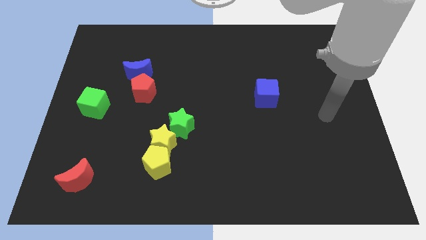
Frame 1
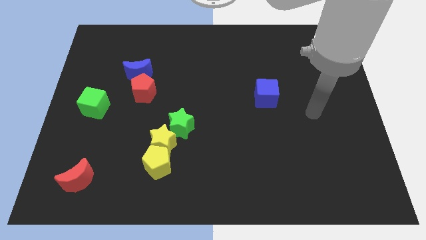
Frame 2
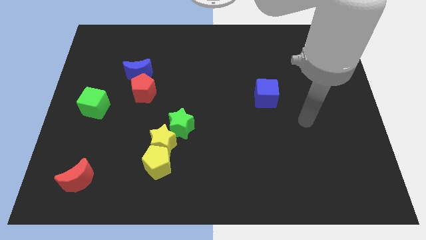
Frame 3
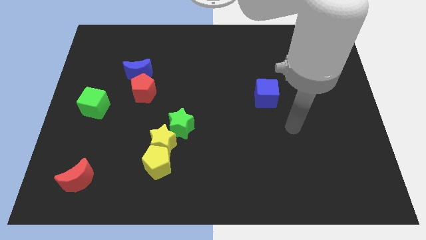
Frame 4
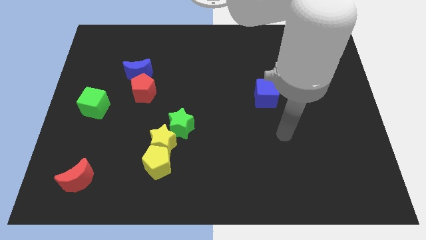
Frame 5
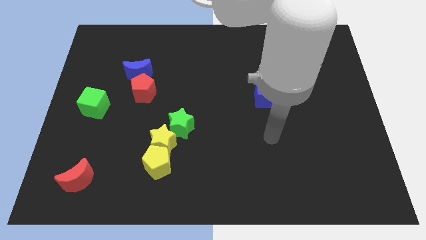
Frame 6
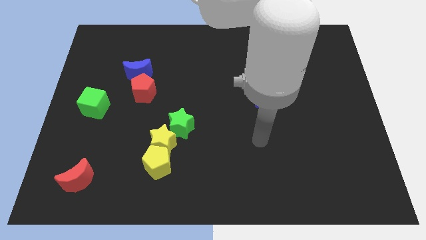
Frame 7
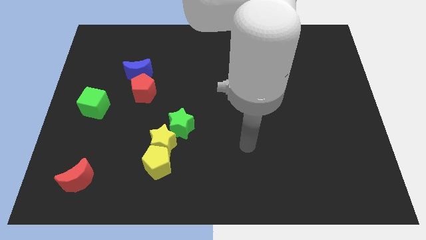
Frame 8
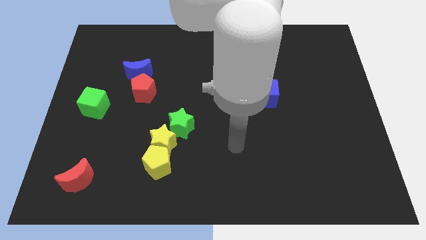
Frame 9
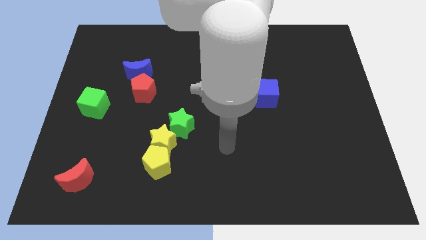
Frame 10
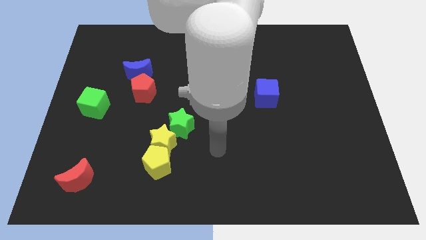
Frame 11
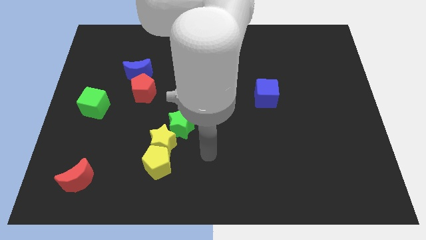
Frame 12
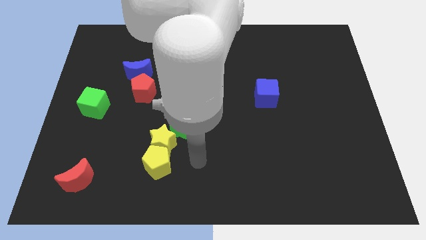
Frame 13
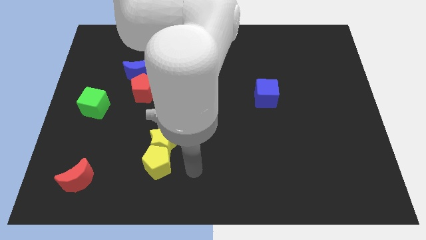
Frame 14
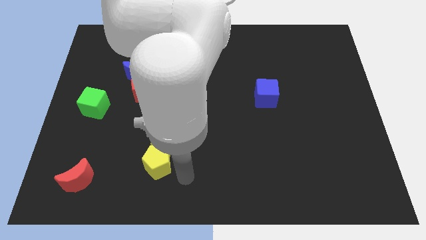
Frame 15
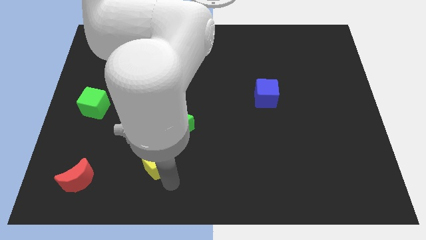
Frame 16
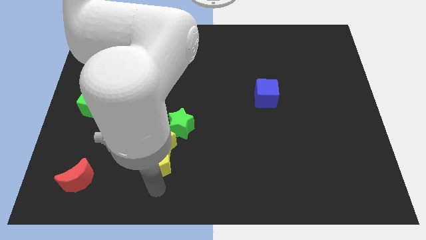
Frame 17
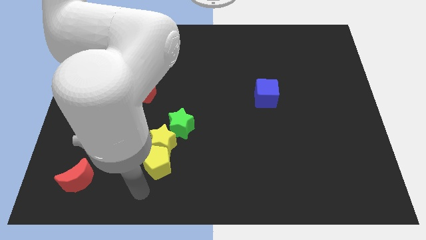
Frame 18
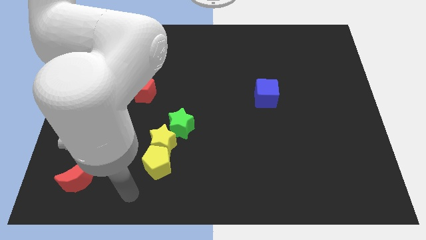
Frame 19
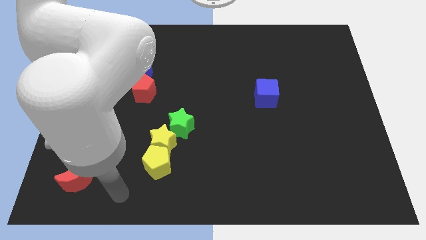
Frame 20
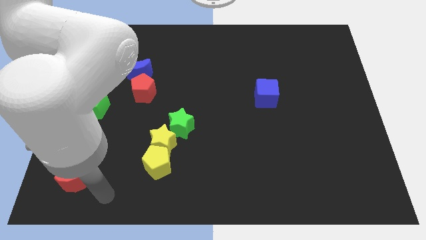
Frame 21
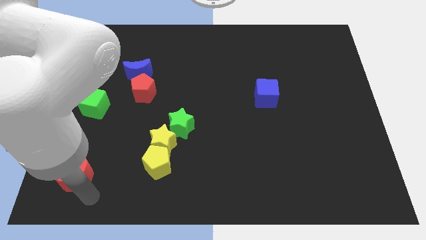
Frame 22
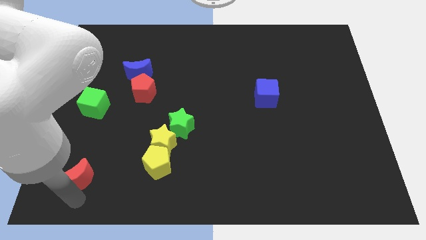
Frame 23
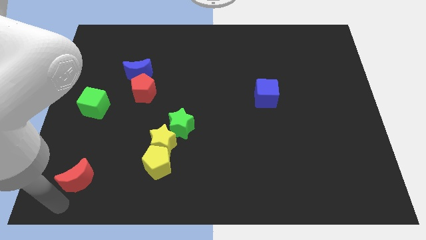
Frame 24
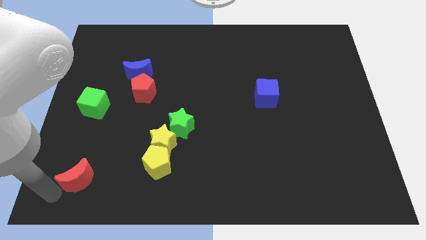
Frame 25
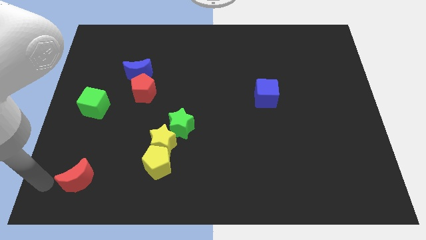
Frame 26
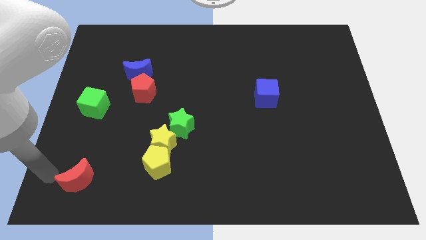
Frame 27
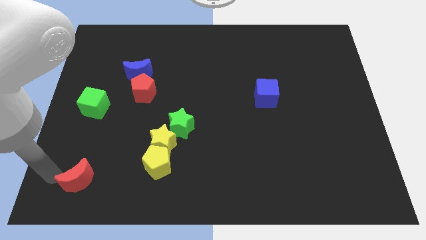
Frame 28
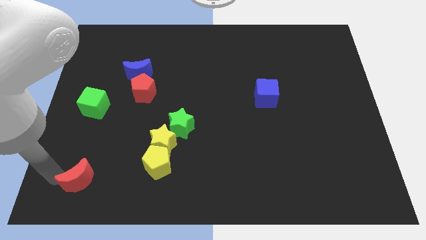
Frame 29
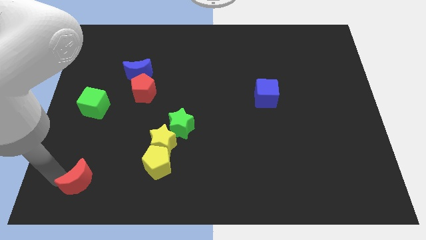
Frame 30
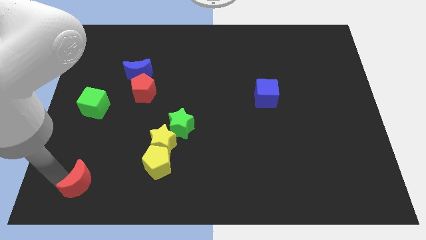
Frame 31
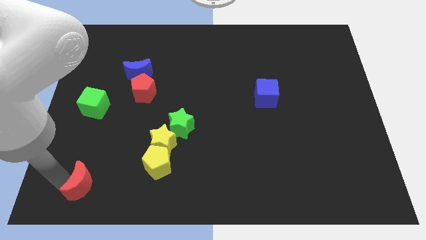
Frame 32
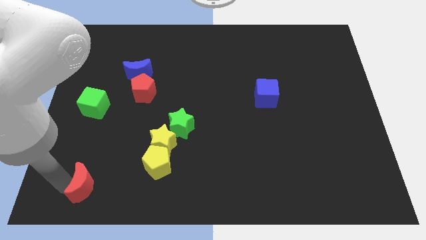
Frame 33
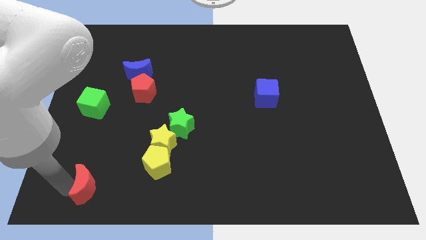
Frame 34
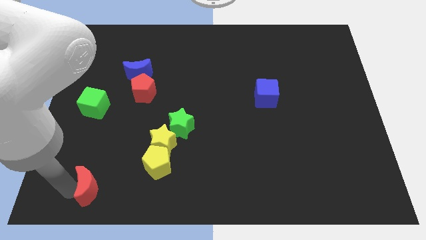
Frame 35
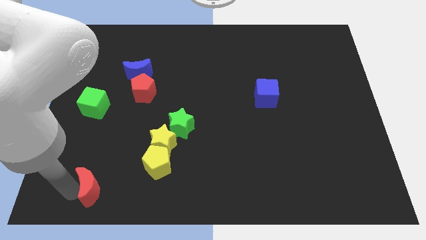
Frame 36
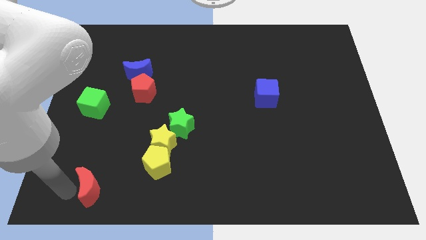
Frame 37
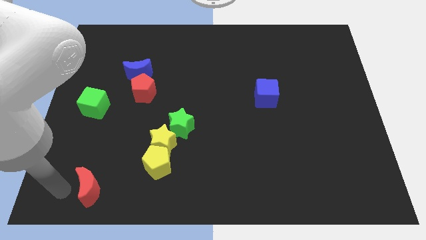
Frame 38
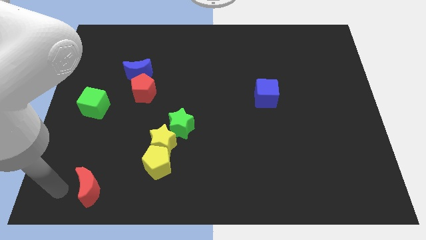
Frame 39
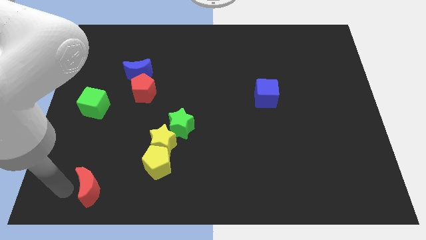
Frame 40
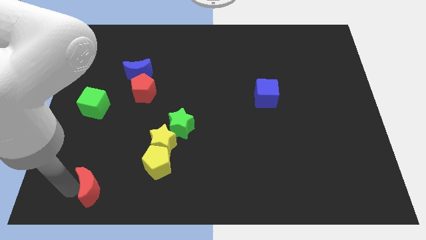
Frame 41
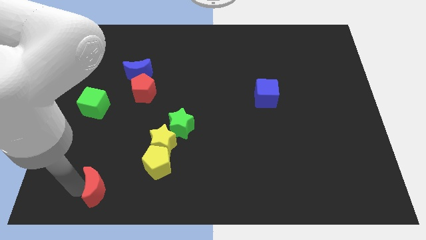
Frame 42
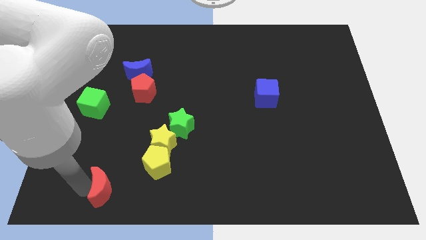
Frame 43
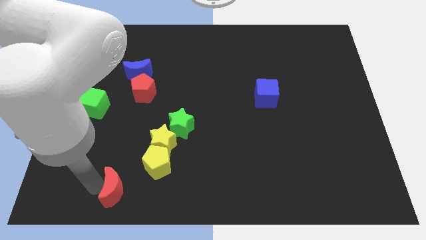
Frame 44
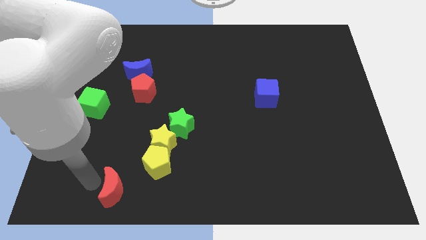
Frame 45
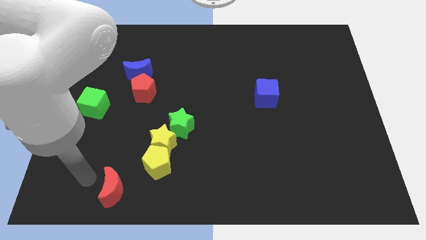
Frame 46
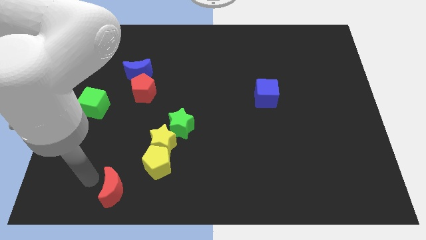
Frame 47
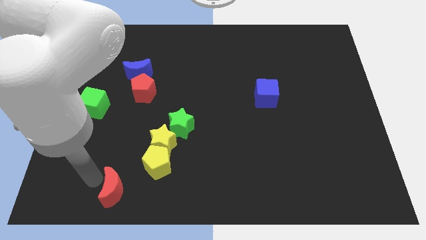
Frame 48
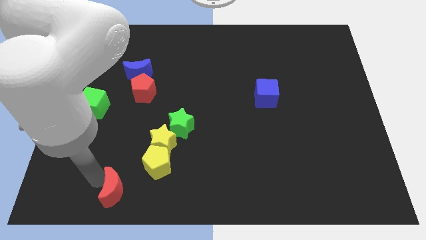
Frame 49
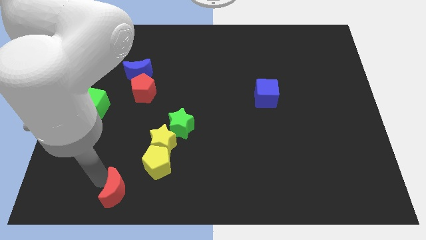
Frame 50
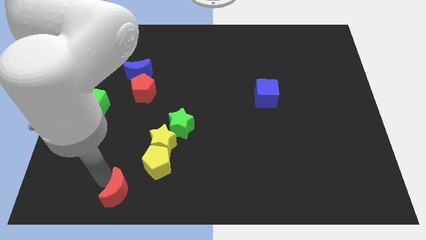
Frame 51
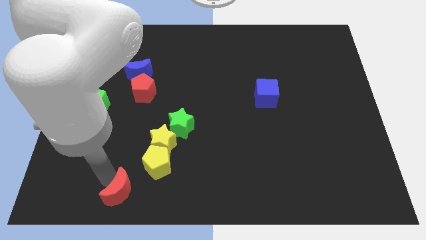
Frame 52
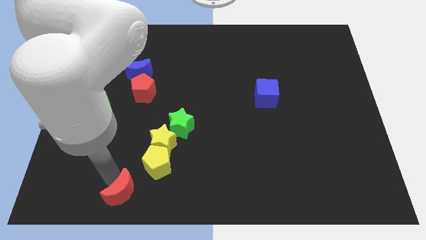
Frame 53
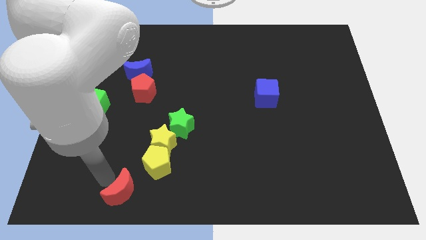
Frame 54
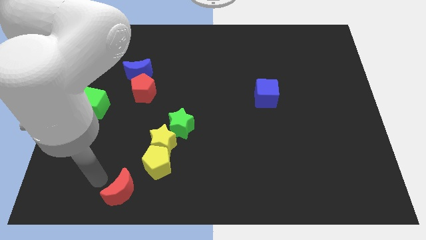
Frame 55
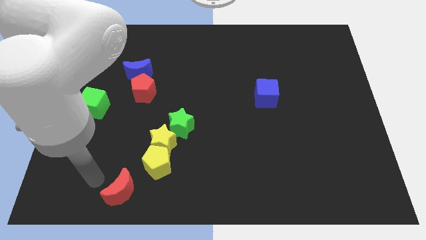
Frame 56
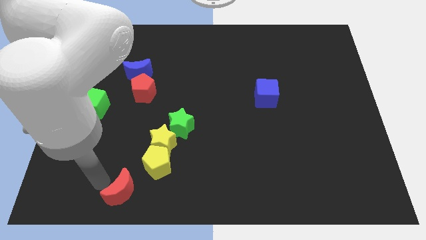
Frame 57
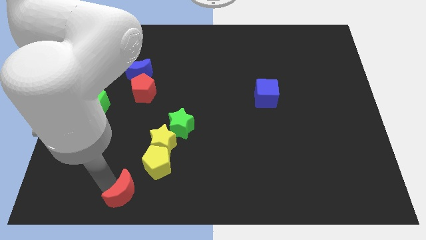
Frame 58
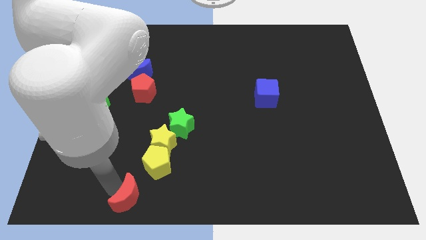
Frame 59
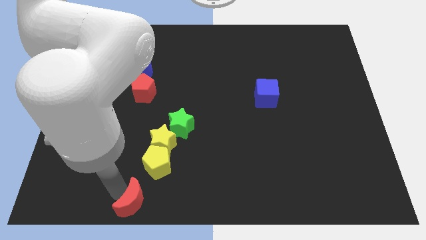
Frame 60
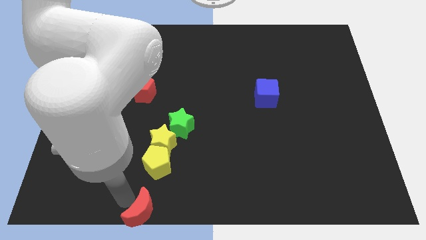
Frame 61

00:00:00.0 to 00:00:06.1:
push the red moon to the bottom

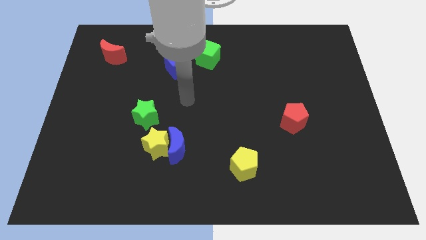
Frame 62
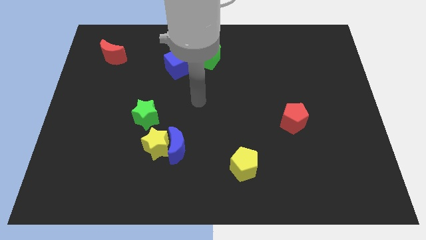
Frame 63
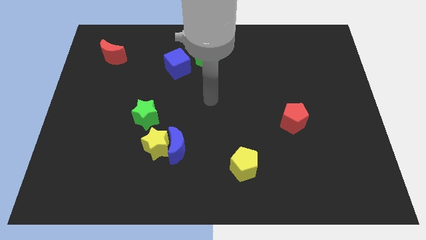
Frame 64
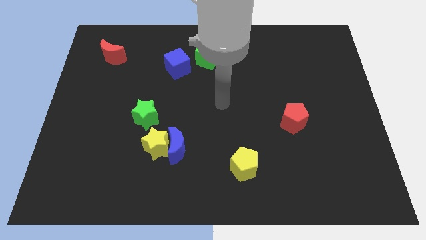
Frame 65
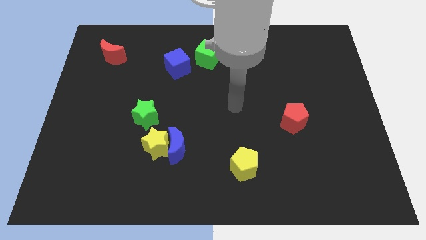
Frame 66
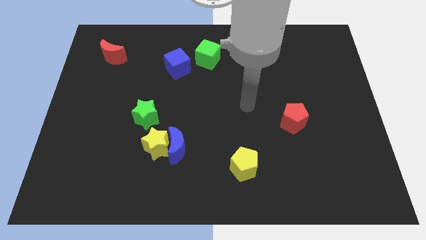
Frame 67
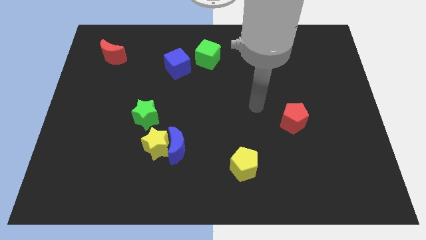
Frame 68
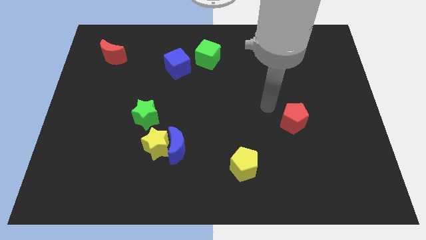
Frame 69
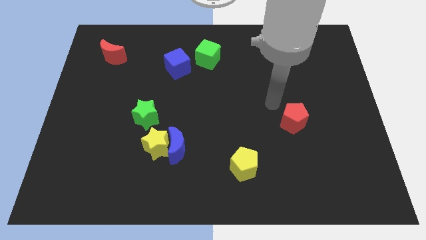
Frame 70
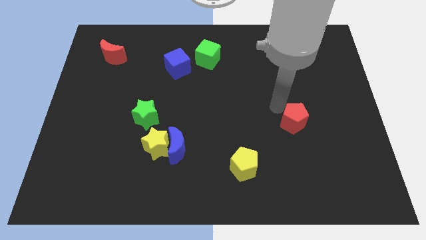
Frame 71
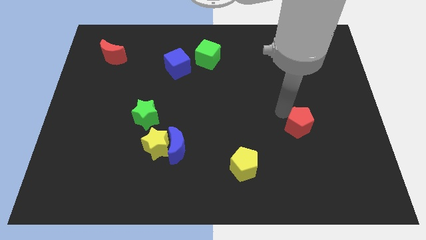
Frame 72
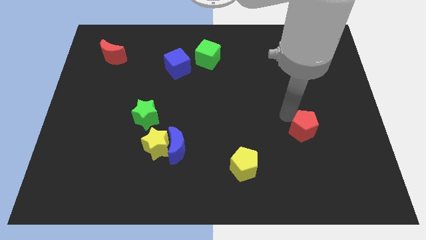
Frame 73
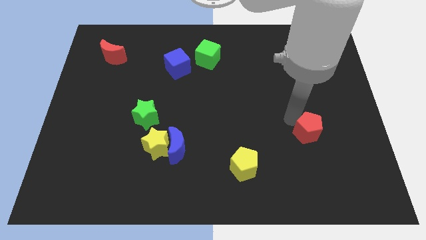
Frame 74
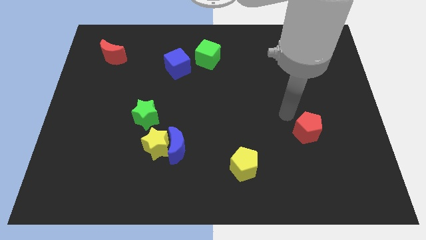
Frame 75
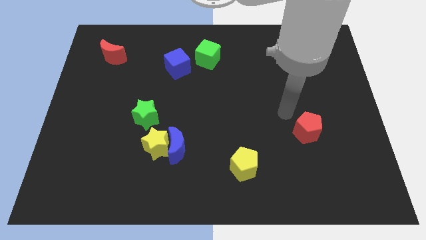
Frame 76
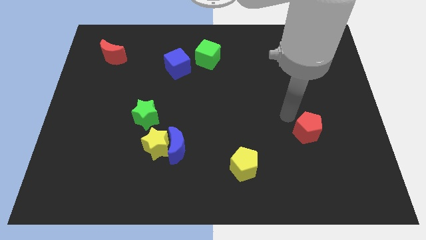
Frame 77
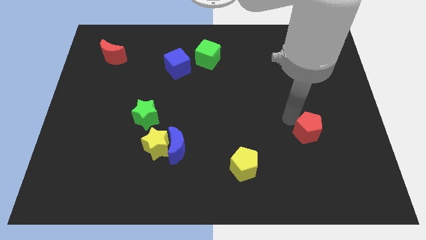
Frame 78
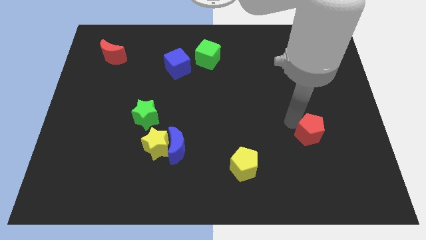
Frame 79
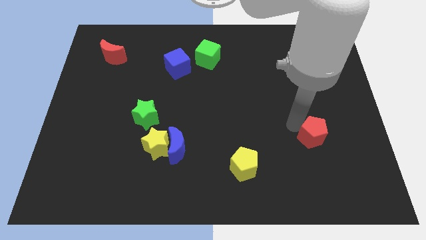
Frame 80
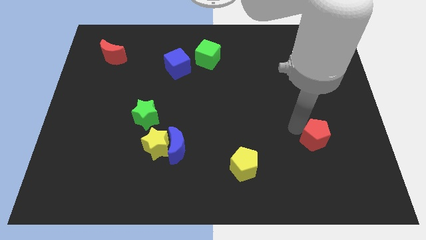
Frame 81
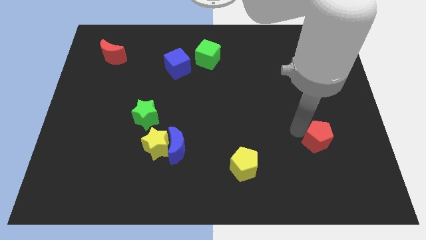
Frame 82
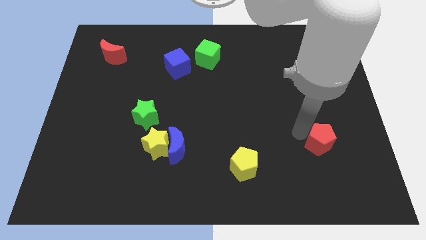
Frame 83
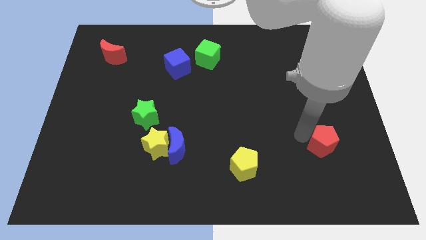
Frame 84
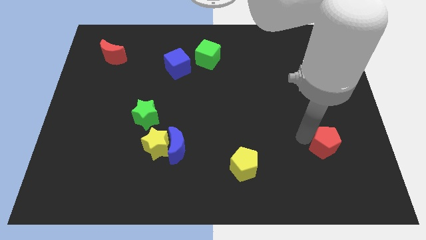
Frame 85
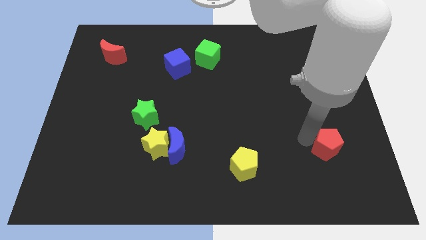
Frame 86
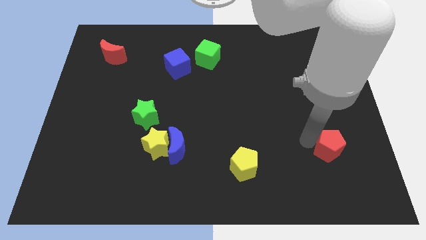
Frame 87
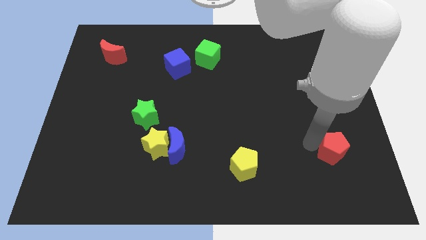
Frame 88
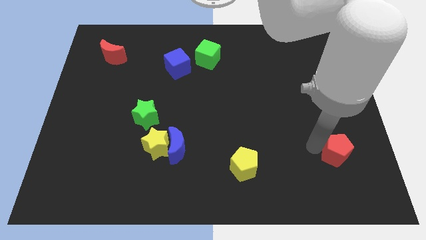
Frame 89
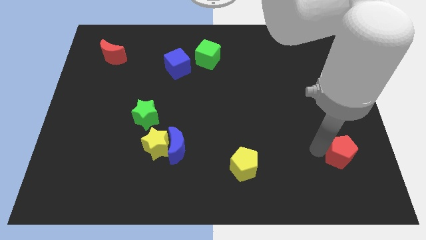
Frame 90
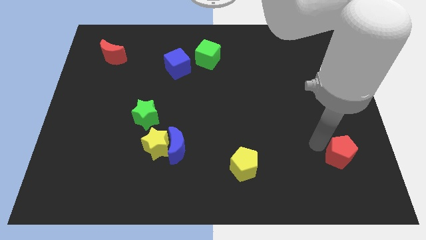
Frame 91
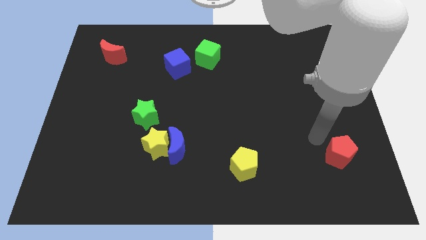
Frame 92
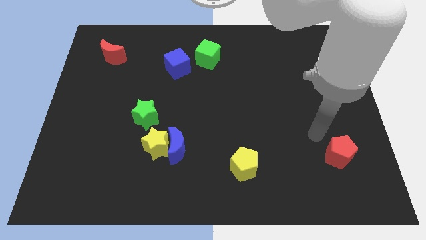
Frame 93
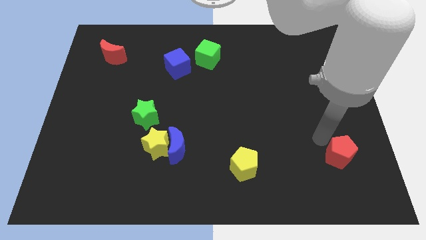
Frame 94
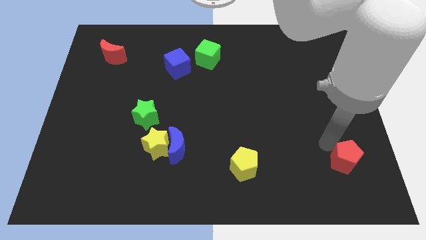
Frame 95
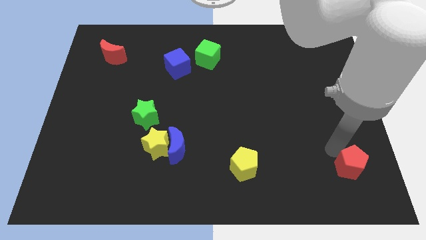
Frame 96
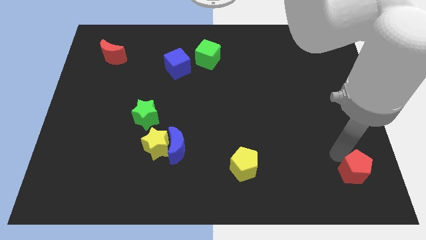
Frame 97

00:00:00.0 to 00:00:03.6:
slide the red pentagon to the bottom right of the board
